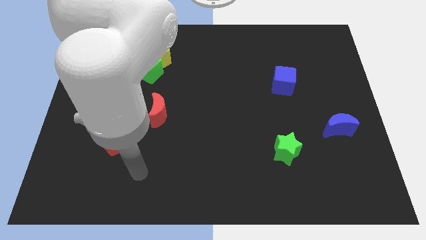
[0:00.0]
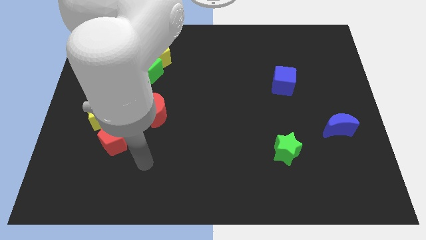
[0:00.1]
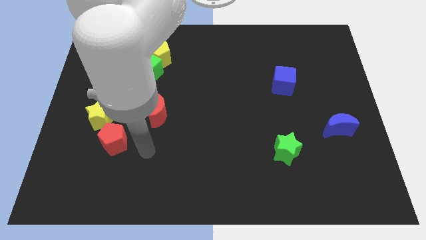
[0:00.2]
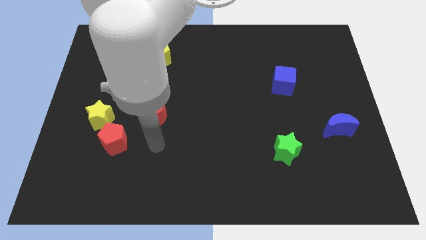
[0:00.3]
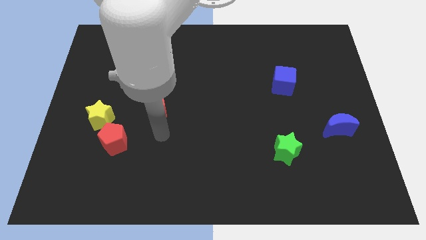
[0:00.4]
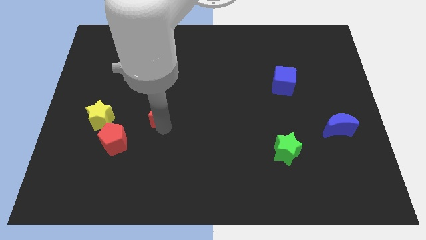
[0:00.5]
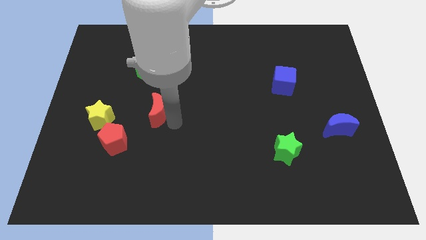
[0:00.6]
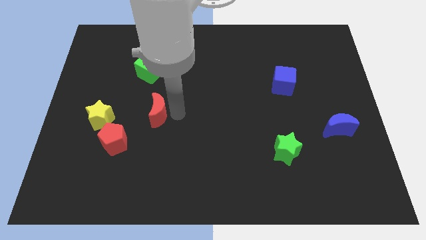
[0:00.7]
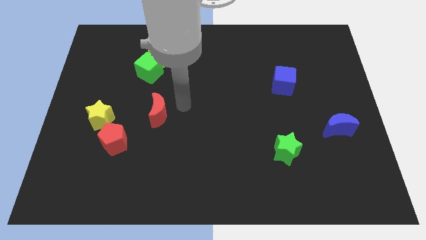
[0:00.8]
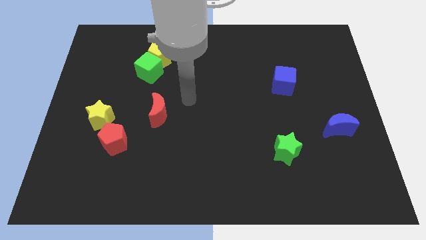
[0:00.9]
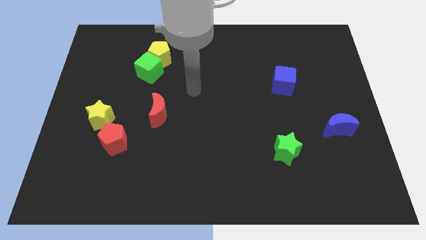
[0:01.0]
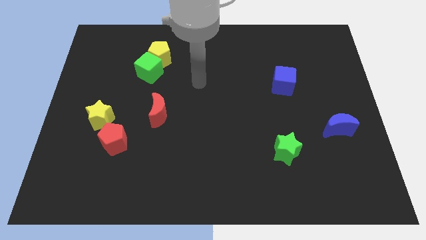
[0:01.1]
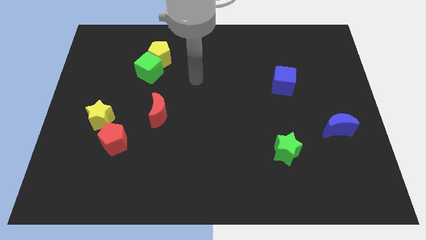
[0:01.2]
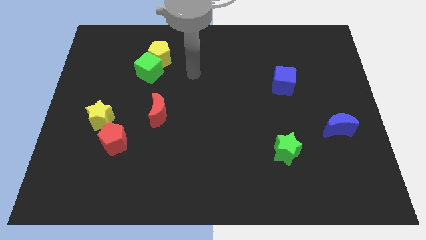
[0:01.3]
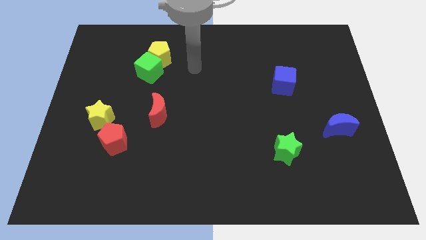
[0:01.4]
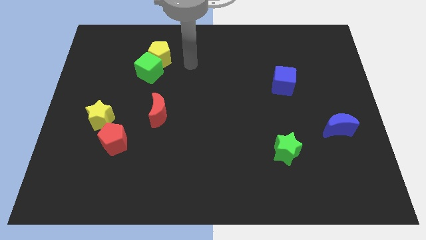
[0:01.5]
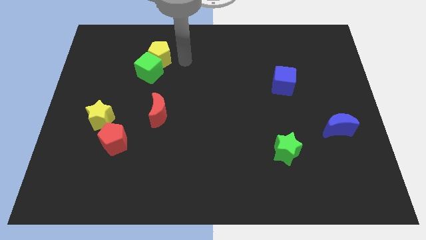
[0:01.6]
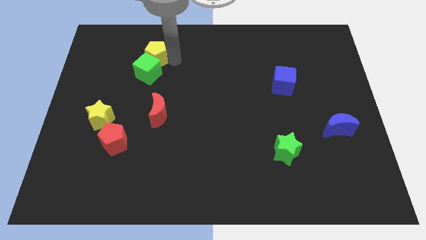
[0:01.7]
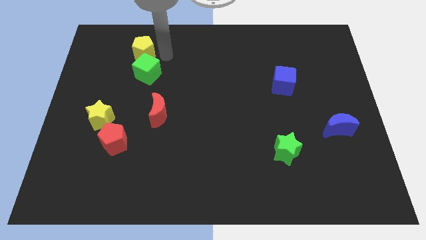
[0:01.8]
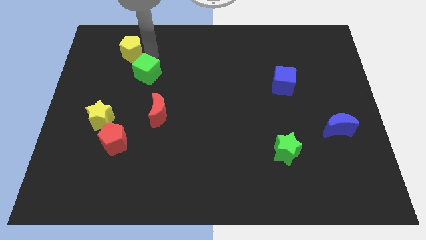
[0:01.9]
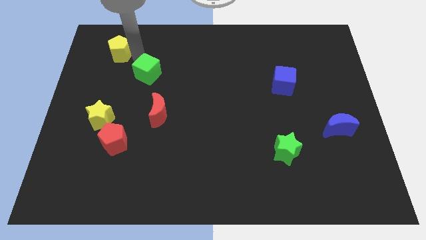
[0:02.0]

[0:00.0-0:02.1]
move the green cube away from the yellow pentagon

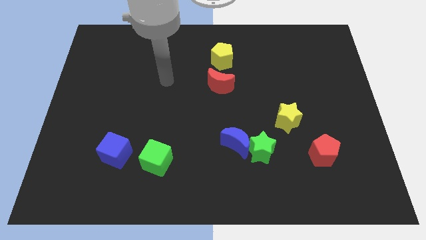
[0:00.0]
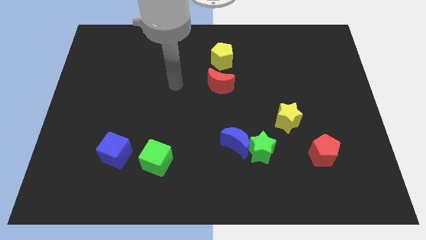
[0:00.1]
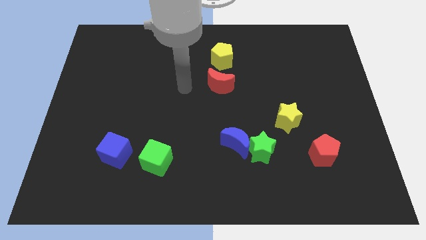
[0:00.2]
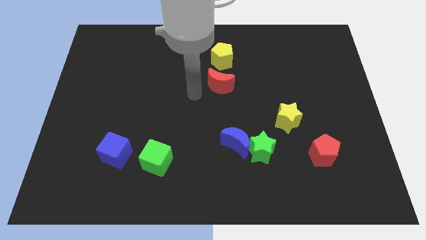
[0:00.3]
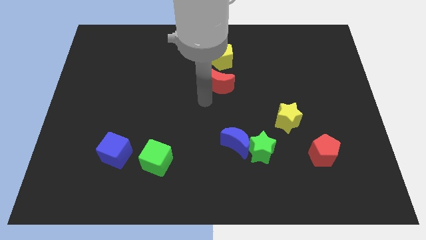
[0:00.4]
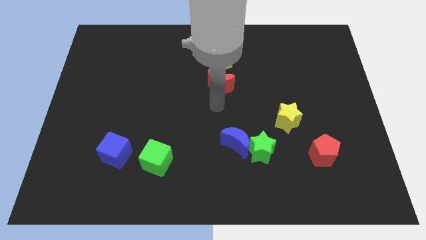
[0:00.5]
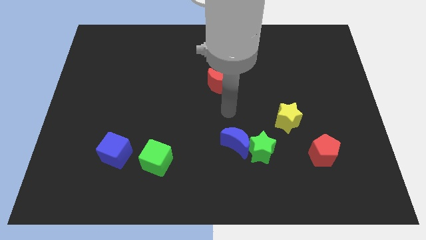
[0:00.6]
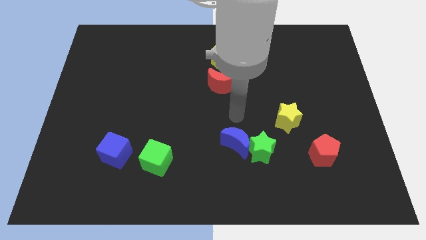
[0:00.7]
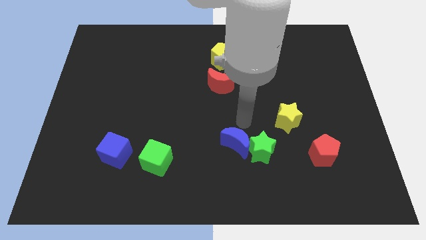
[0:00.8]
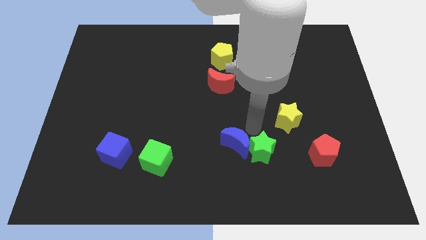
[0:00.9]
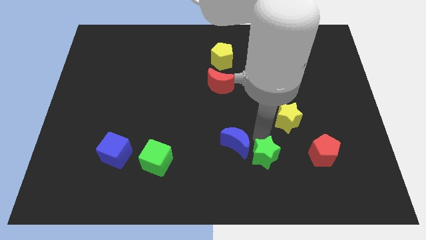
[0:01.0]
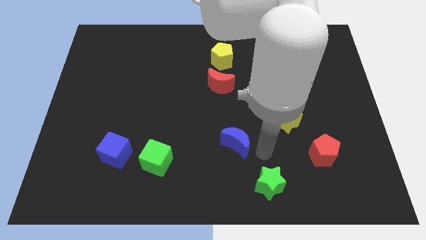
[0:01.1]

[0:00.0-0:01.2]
pull the blue moon apart from the green star

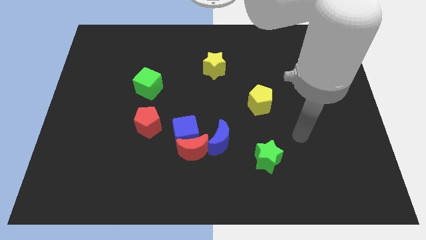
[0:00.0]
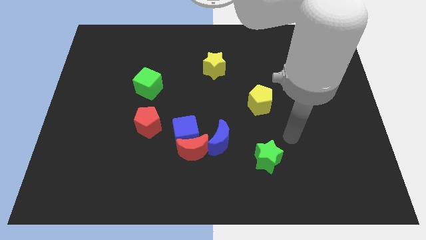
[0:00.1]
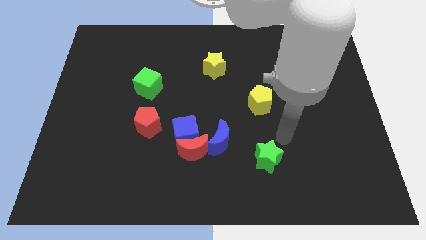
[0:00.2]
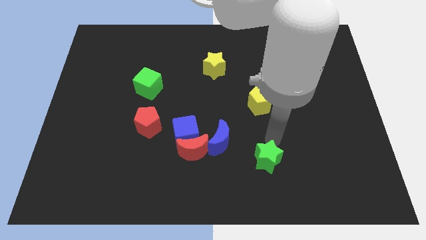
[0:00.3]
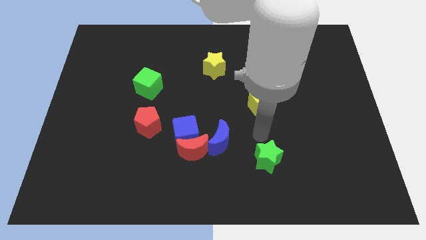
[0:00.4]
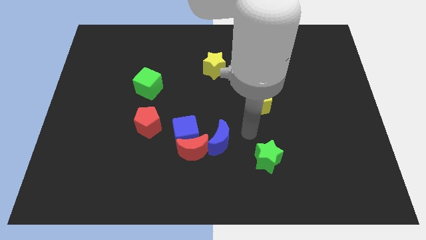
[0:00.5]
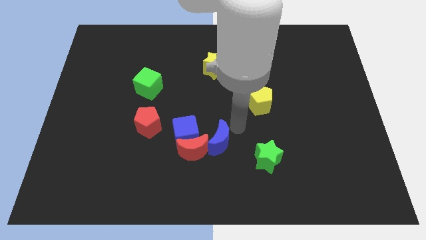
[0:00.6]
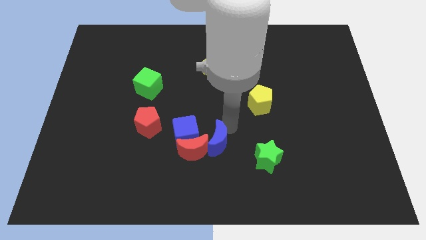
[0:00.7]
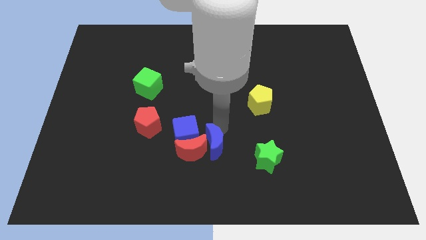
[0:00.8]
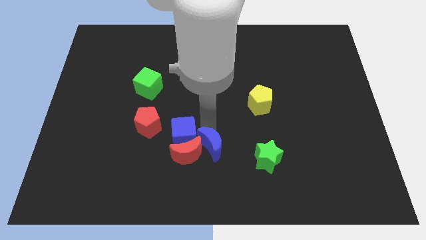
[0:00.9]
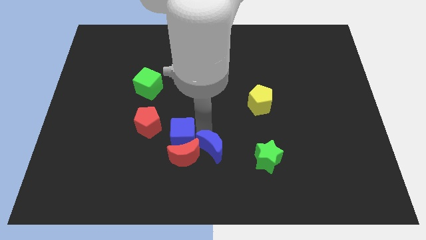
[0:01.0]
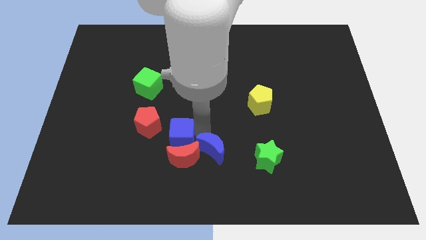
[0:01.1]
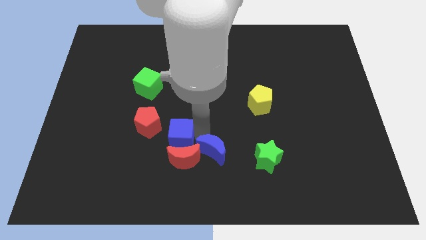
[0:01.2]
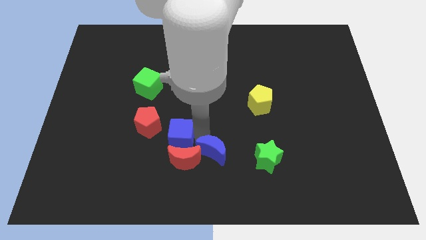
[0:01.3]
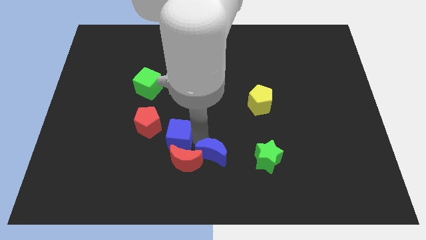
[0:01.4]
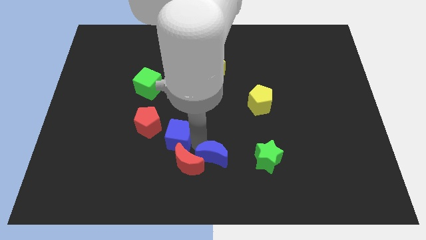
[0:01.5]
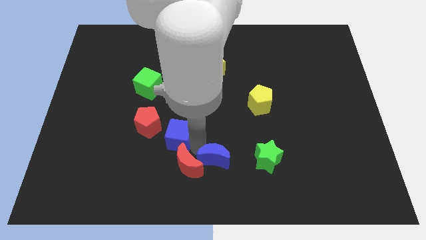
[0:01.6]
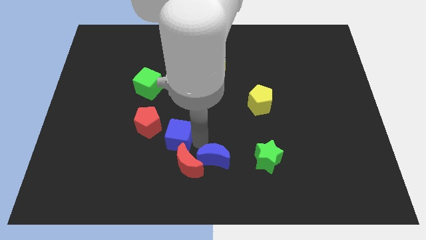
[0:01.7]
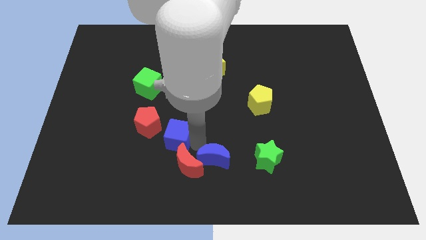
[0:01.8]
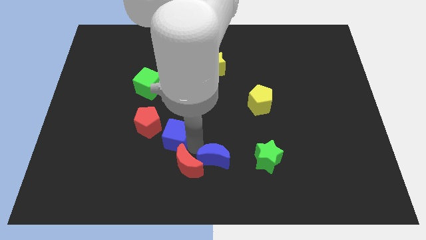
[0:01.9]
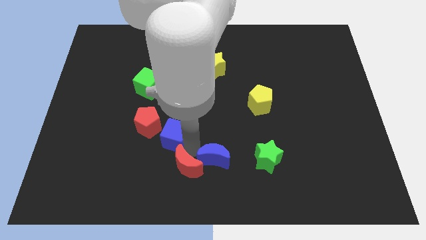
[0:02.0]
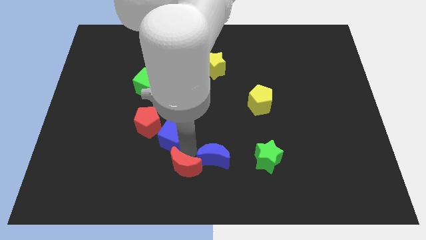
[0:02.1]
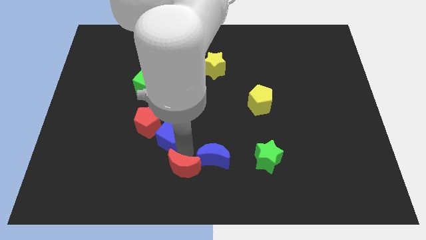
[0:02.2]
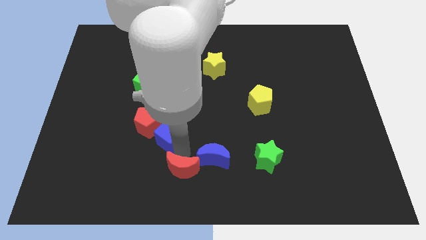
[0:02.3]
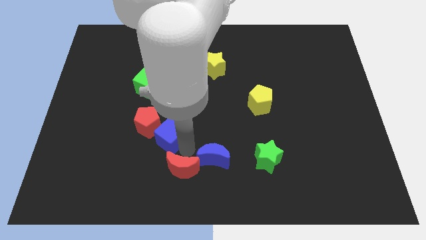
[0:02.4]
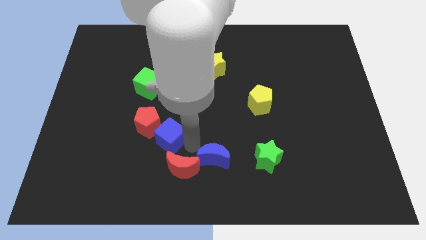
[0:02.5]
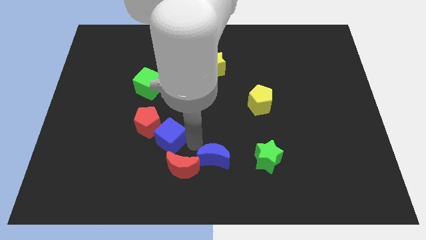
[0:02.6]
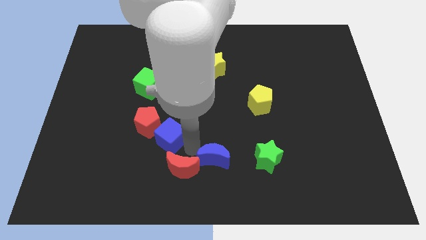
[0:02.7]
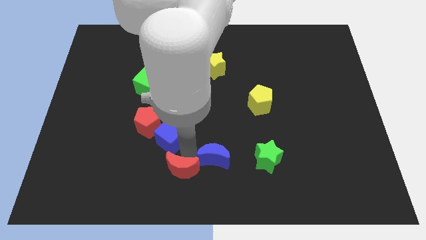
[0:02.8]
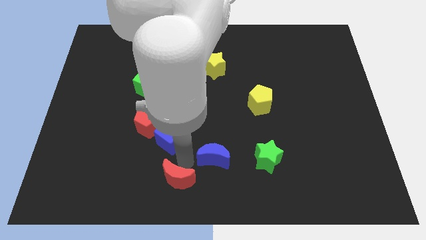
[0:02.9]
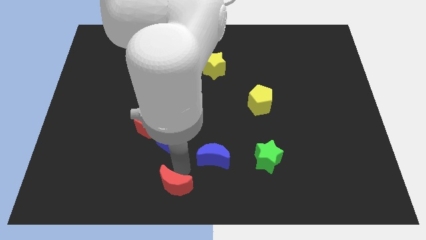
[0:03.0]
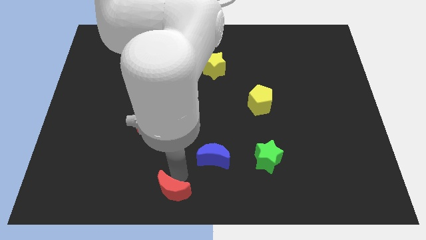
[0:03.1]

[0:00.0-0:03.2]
separate the red moon from the blue cube and blue moon

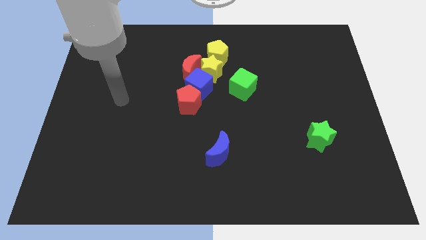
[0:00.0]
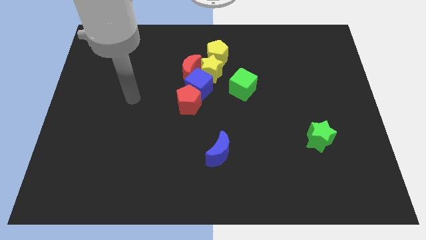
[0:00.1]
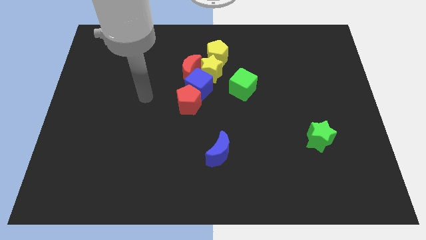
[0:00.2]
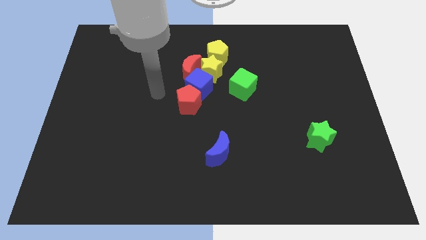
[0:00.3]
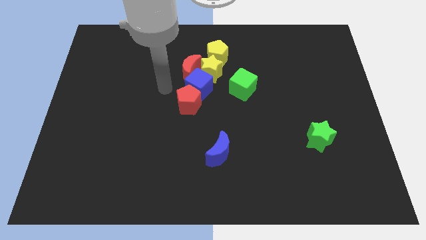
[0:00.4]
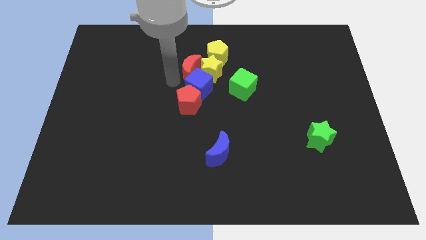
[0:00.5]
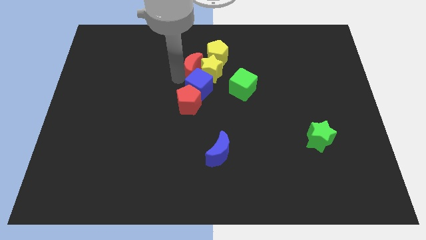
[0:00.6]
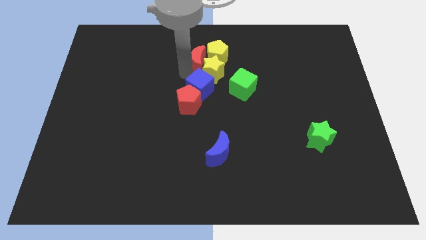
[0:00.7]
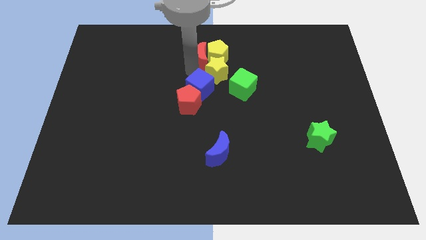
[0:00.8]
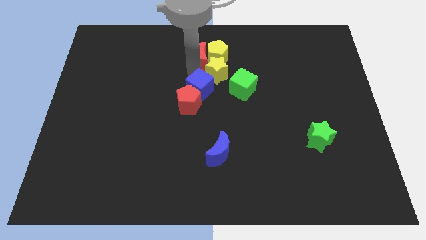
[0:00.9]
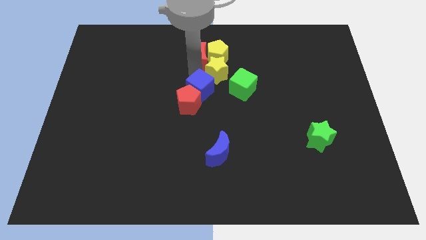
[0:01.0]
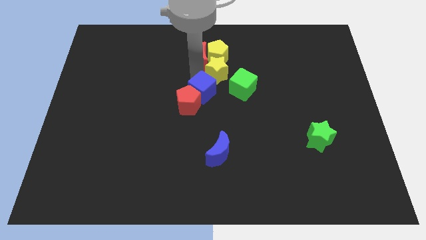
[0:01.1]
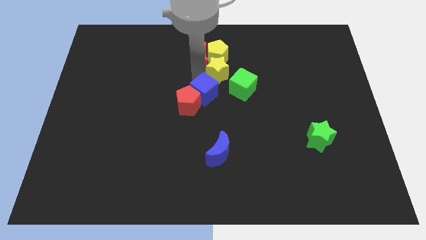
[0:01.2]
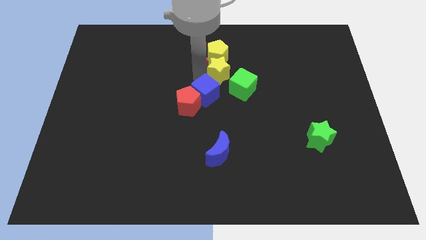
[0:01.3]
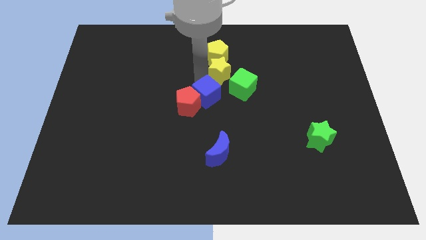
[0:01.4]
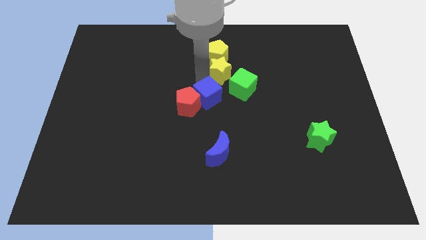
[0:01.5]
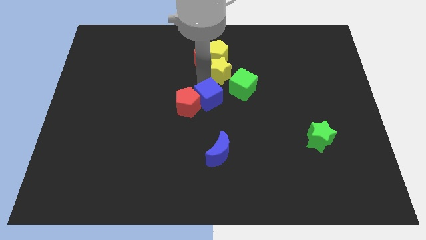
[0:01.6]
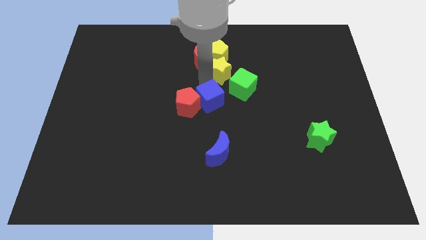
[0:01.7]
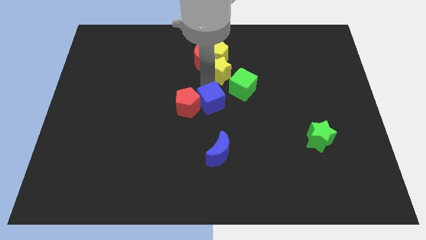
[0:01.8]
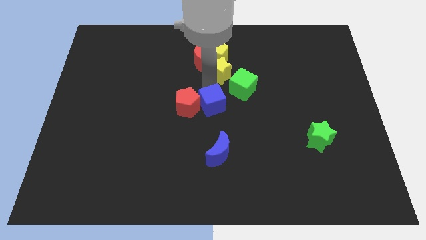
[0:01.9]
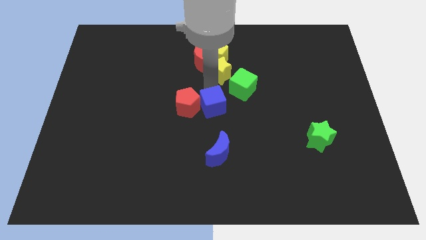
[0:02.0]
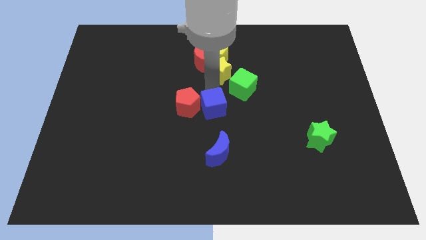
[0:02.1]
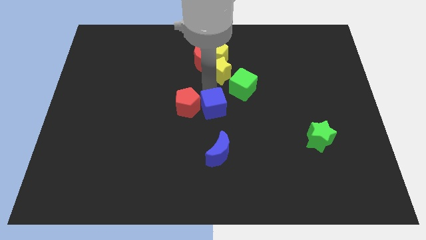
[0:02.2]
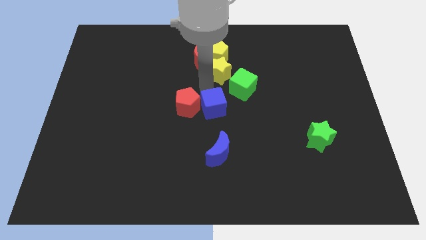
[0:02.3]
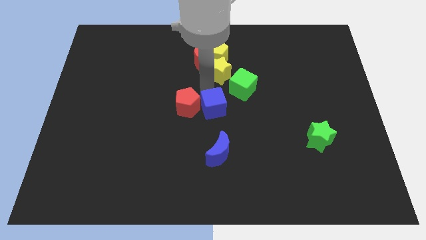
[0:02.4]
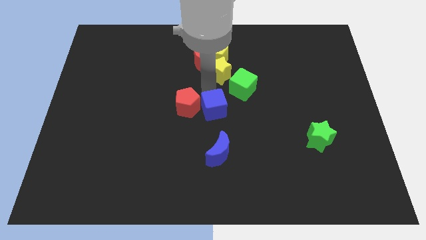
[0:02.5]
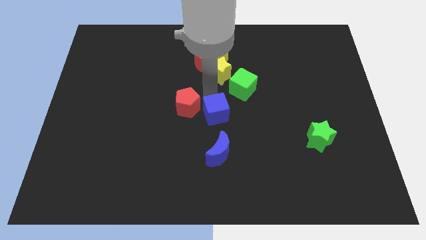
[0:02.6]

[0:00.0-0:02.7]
separate the blue cube from the red pentagon, red moon, and yellow star

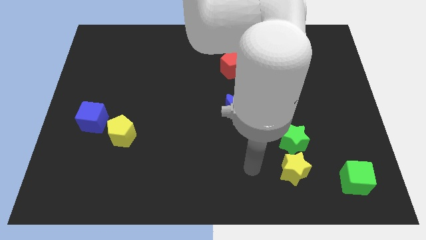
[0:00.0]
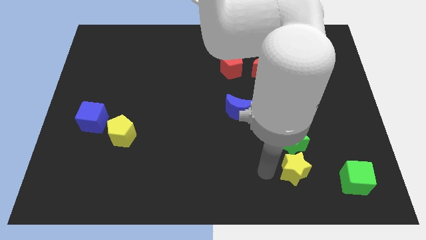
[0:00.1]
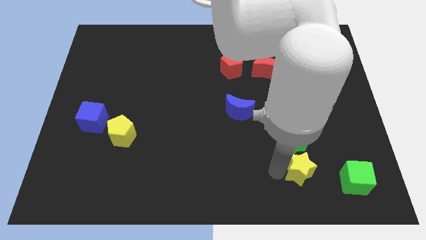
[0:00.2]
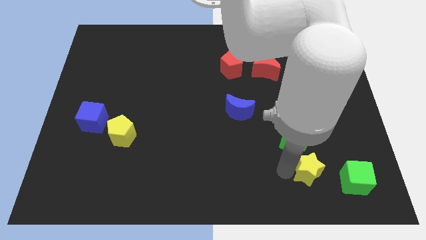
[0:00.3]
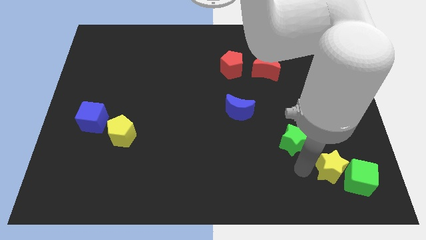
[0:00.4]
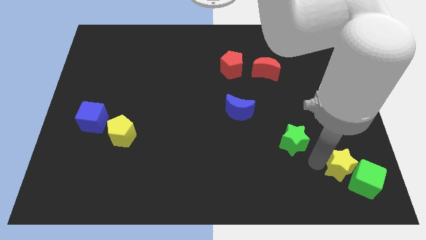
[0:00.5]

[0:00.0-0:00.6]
move the green star away from the yellow star
